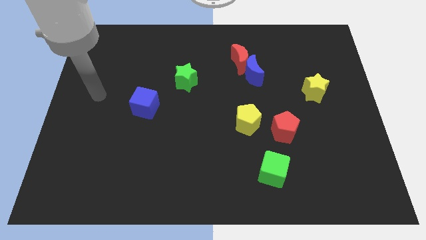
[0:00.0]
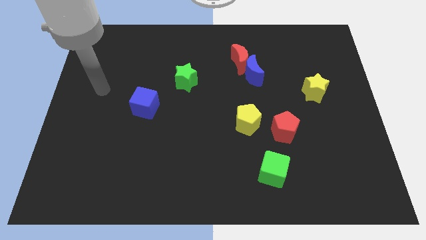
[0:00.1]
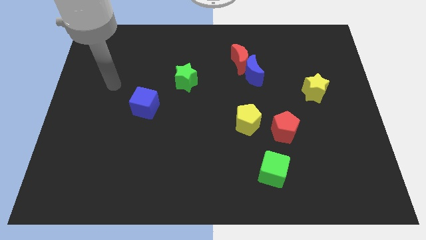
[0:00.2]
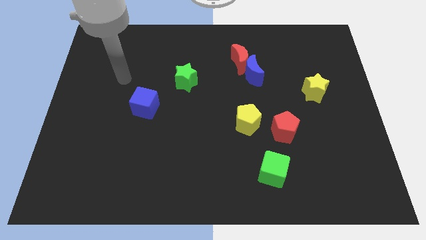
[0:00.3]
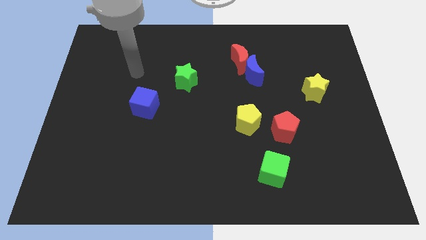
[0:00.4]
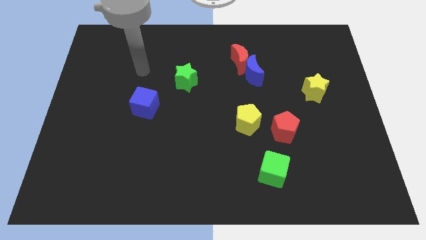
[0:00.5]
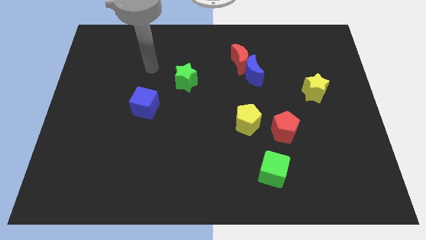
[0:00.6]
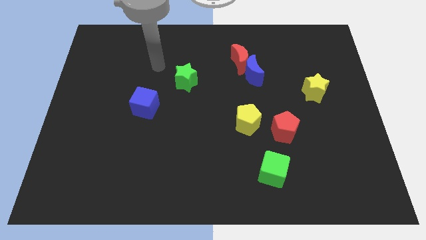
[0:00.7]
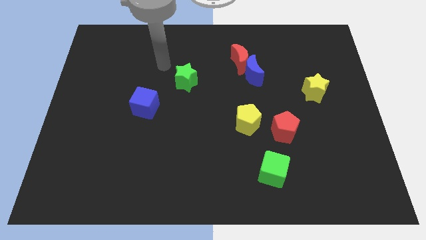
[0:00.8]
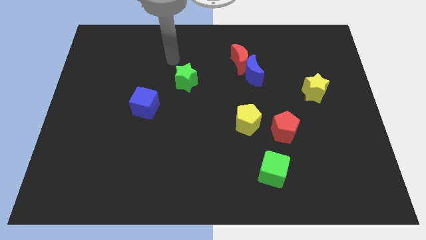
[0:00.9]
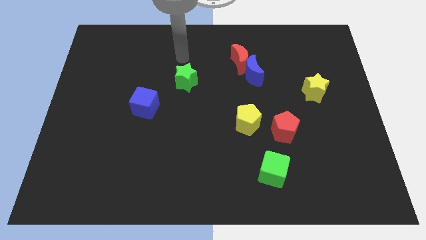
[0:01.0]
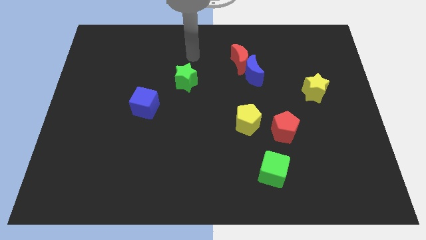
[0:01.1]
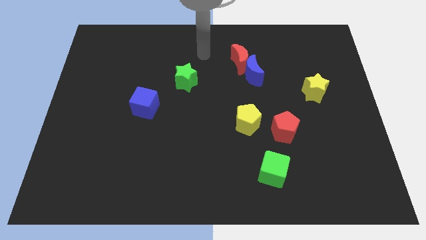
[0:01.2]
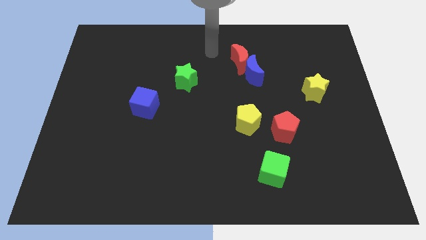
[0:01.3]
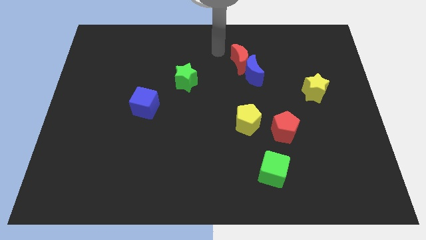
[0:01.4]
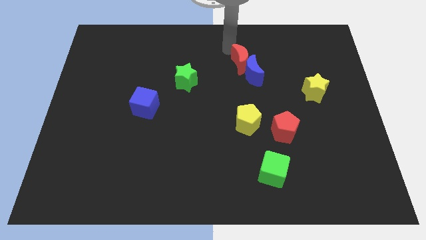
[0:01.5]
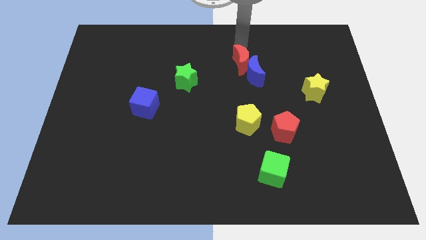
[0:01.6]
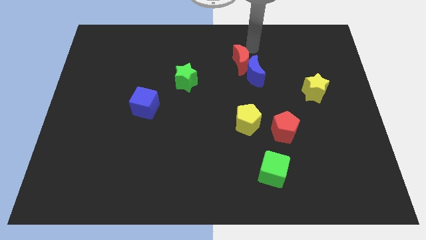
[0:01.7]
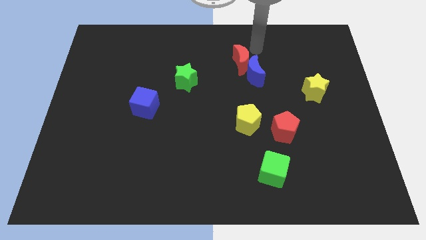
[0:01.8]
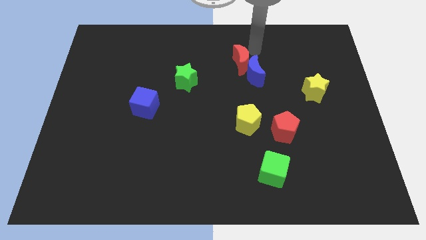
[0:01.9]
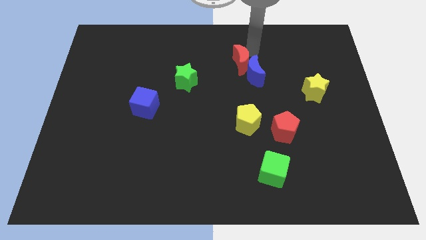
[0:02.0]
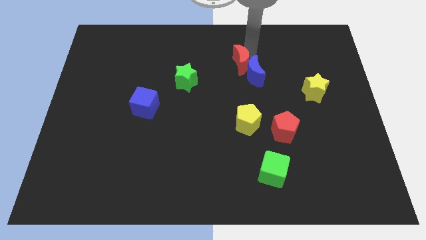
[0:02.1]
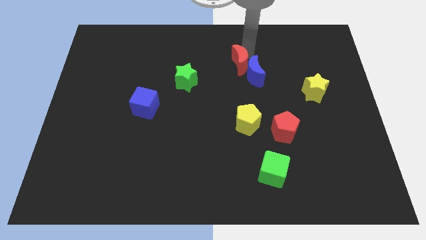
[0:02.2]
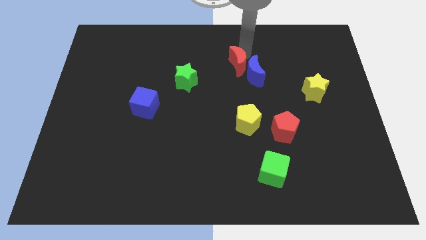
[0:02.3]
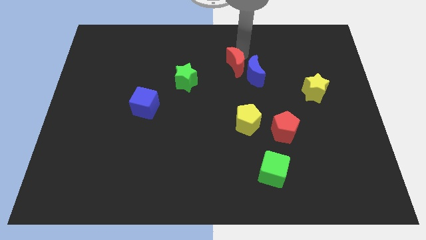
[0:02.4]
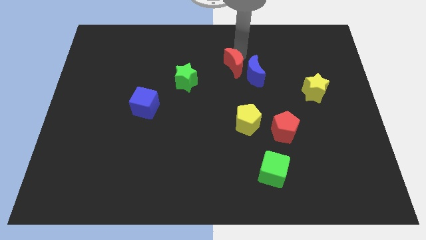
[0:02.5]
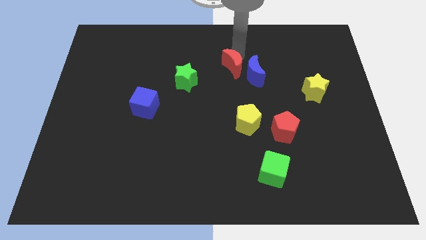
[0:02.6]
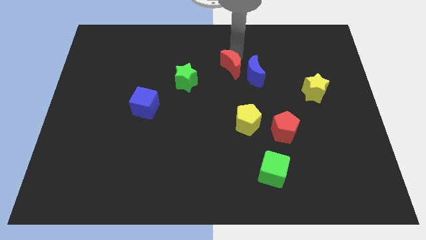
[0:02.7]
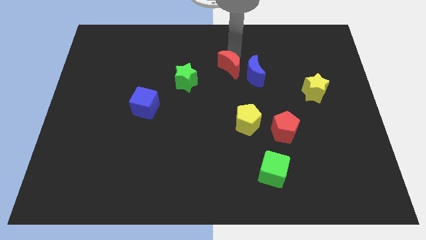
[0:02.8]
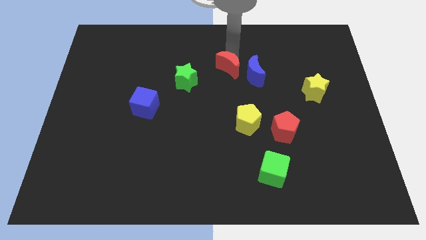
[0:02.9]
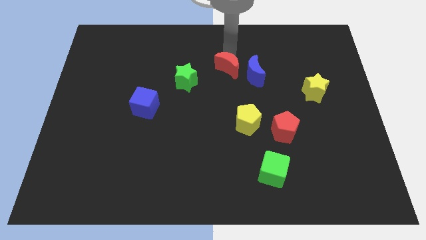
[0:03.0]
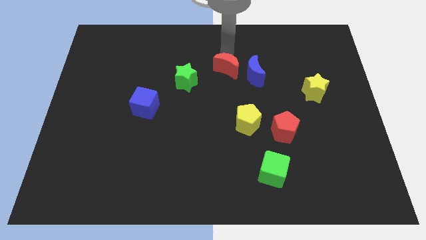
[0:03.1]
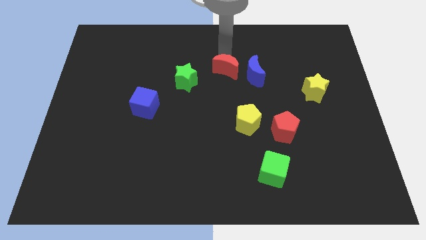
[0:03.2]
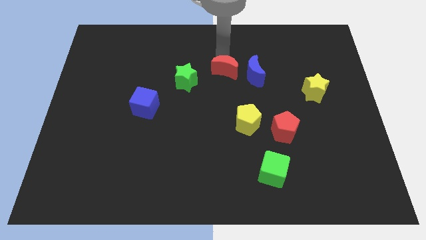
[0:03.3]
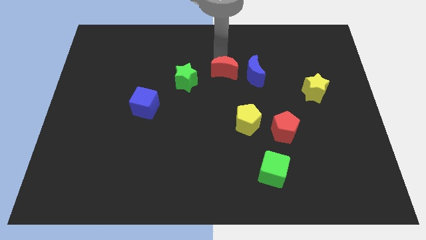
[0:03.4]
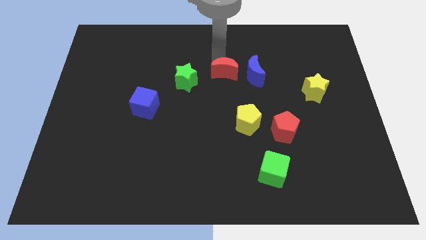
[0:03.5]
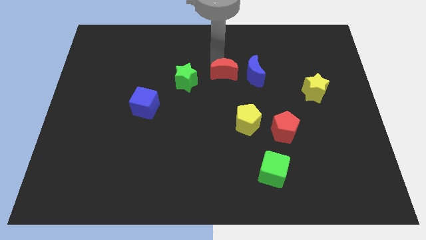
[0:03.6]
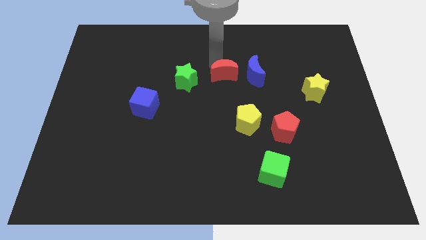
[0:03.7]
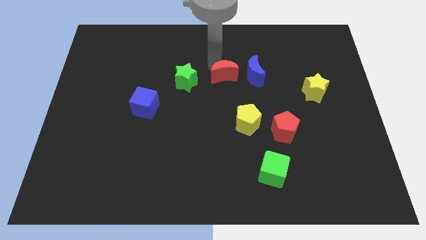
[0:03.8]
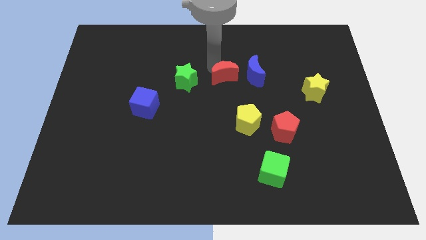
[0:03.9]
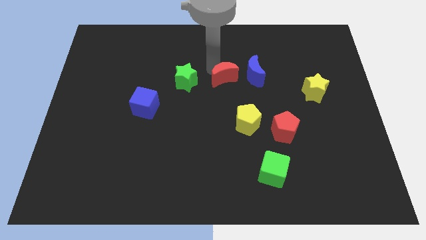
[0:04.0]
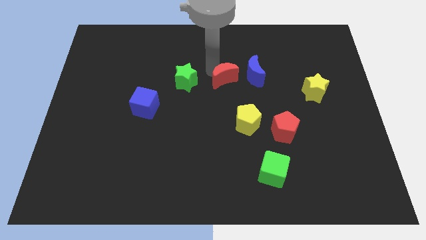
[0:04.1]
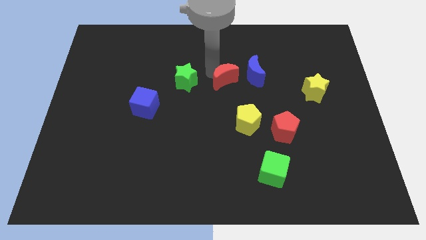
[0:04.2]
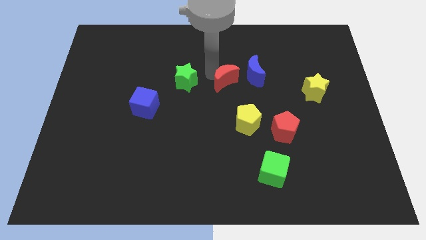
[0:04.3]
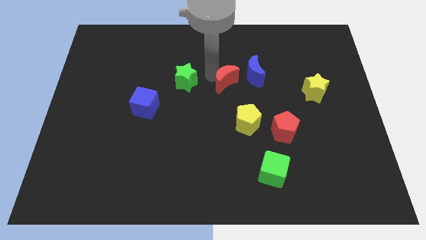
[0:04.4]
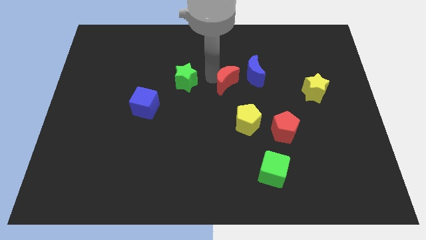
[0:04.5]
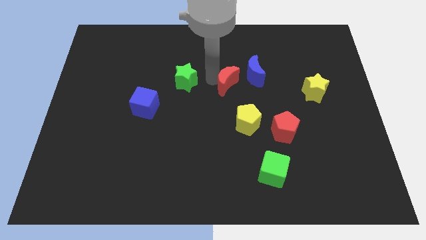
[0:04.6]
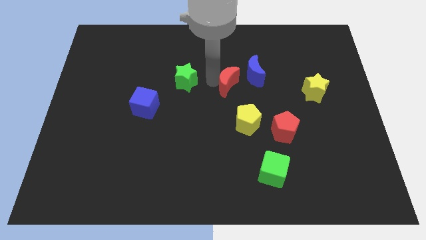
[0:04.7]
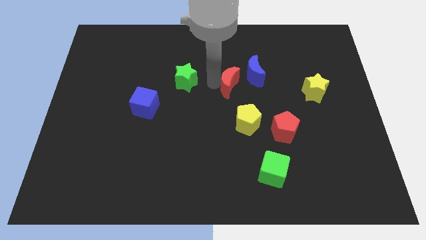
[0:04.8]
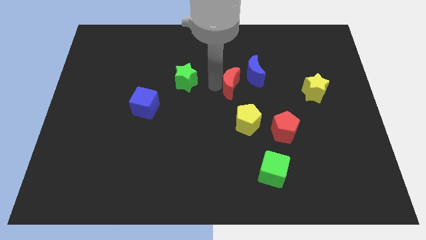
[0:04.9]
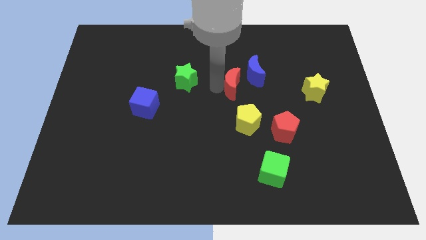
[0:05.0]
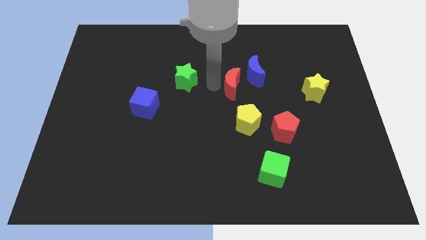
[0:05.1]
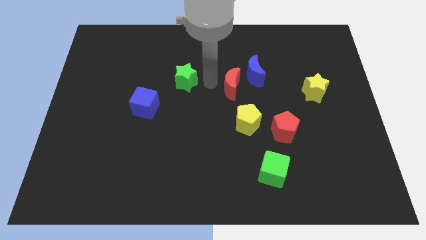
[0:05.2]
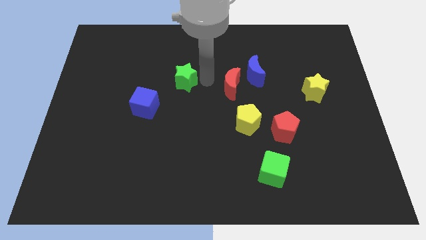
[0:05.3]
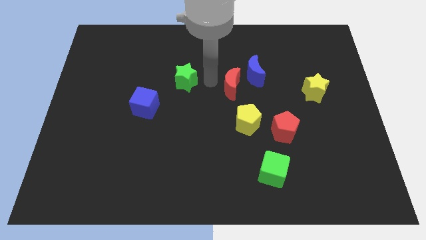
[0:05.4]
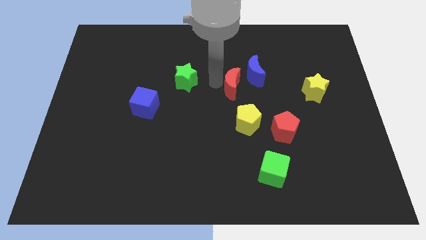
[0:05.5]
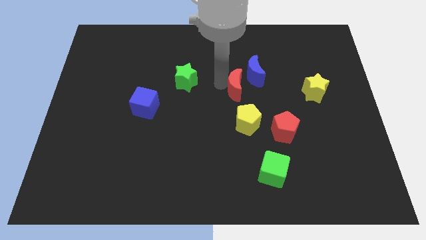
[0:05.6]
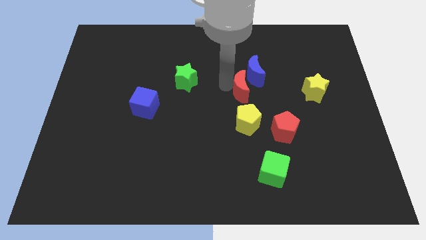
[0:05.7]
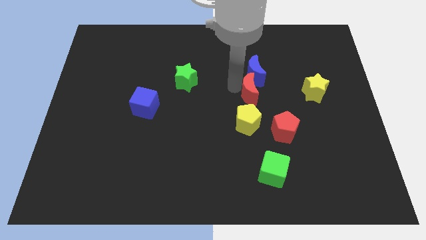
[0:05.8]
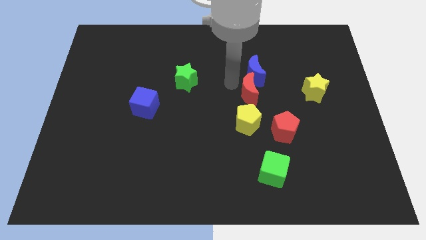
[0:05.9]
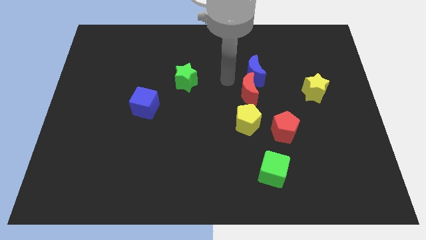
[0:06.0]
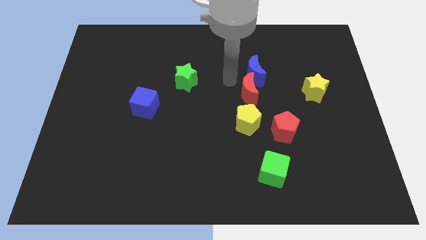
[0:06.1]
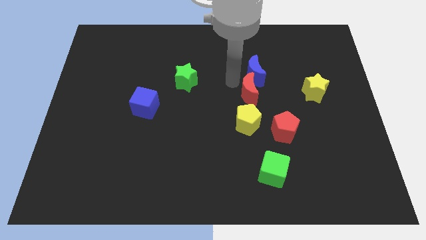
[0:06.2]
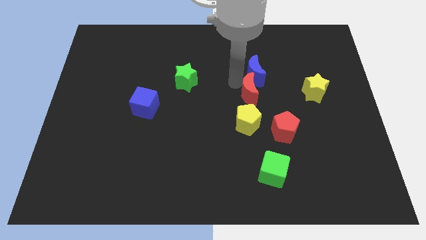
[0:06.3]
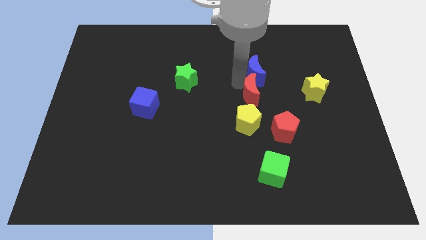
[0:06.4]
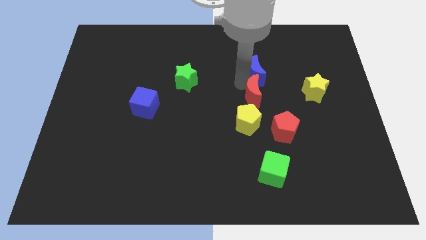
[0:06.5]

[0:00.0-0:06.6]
put the red moon diagonally up and to the right of the yellow pentagon
